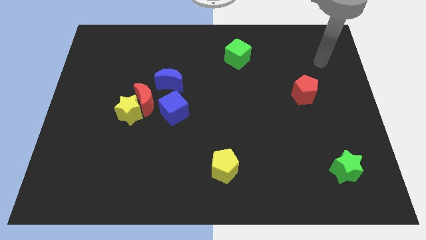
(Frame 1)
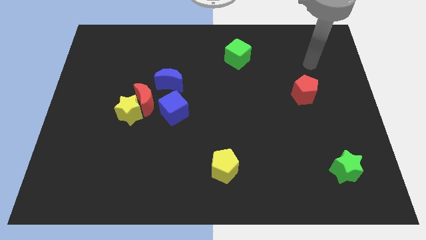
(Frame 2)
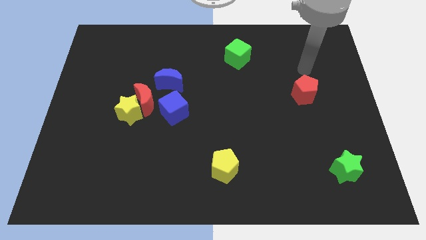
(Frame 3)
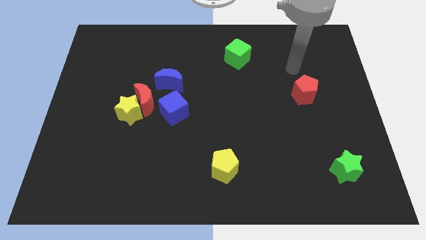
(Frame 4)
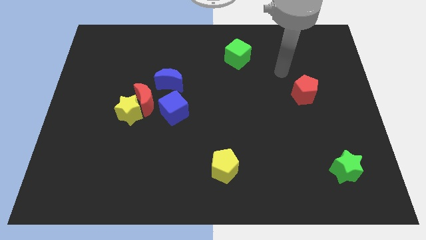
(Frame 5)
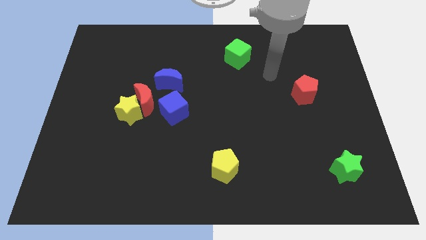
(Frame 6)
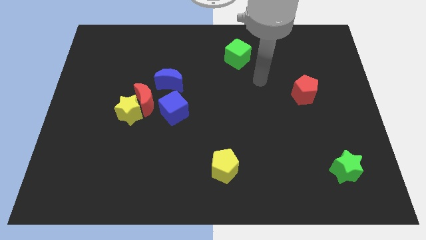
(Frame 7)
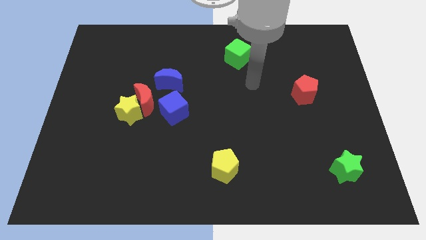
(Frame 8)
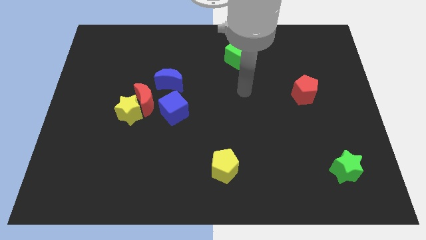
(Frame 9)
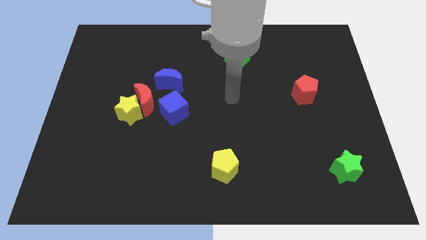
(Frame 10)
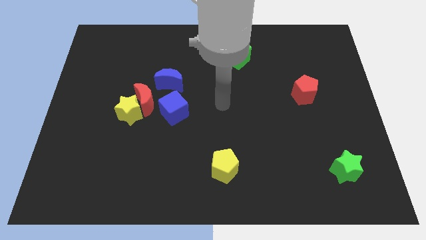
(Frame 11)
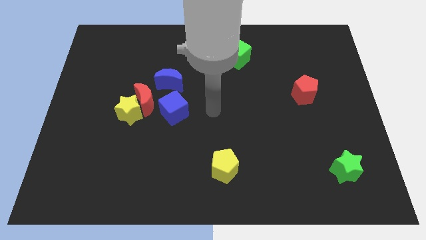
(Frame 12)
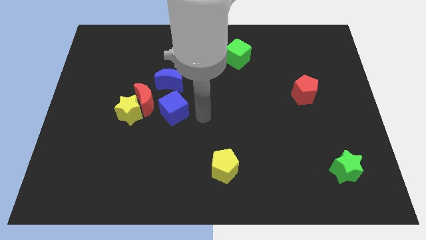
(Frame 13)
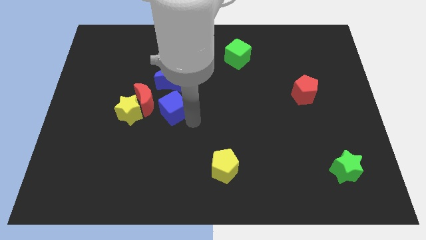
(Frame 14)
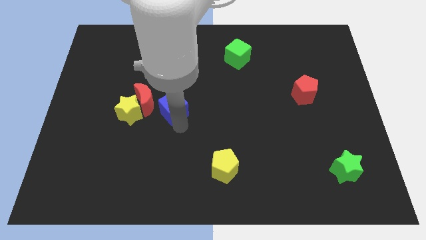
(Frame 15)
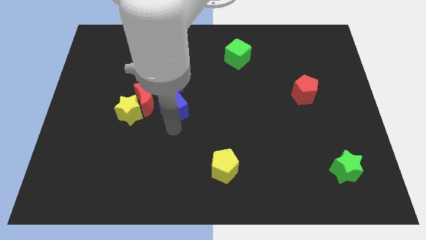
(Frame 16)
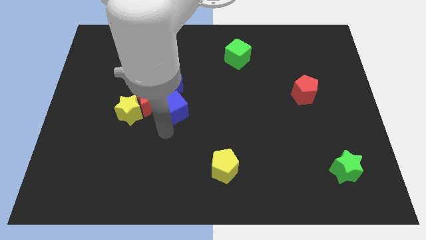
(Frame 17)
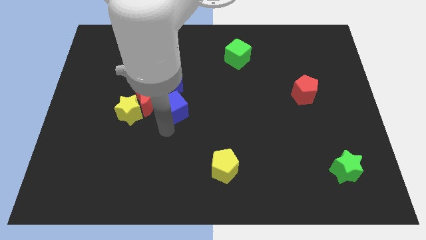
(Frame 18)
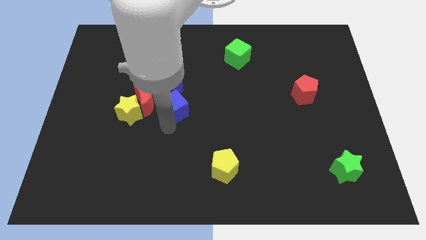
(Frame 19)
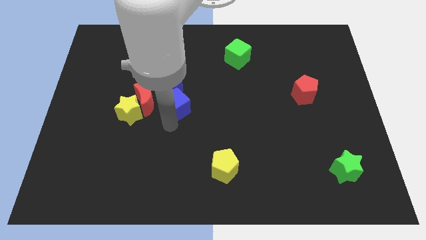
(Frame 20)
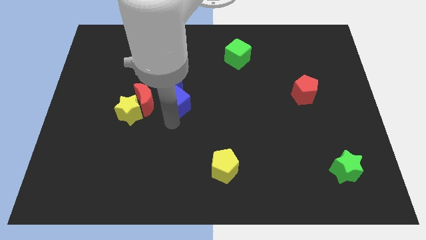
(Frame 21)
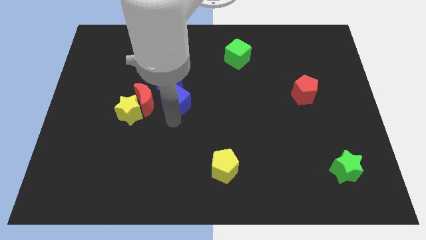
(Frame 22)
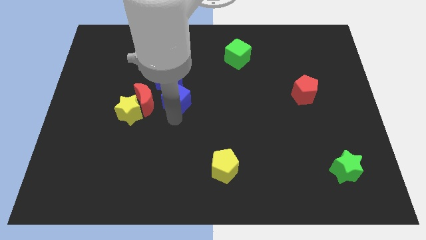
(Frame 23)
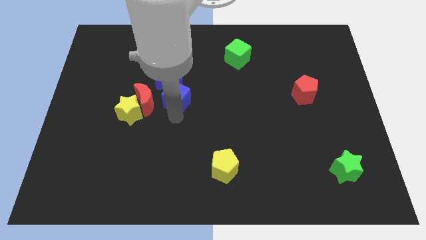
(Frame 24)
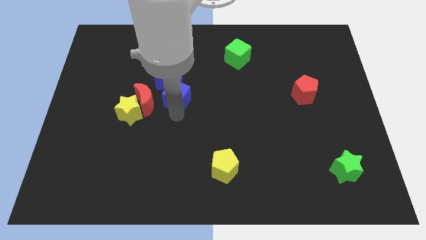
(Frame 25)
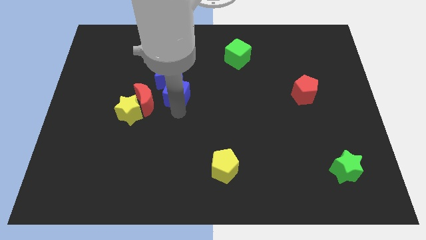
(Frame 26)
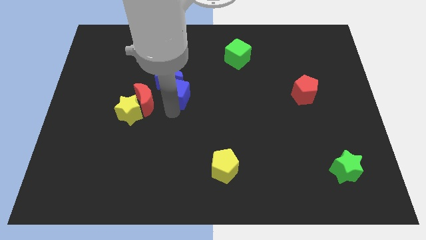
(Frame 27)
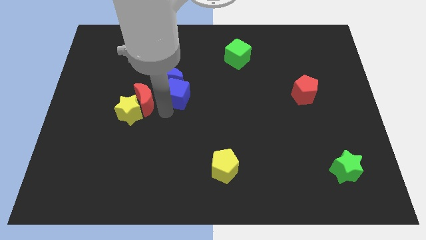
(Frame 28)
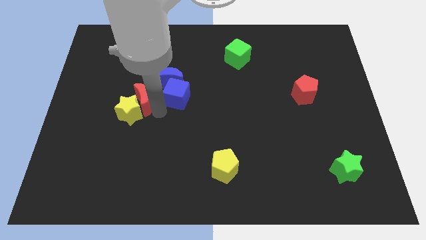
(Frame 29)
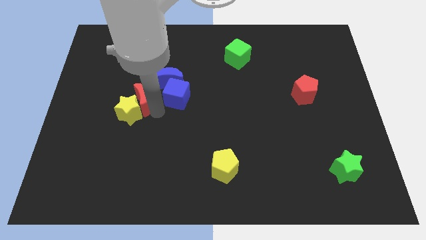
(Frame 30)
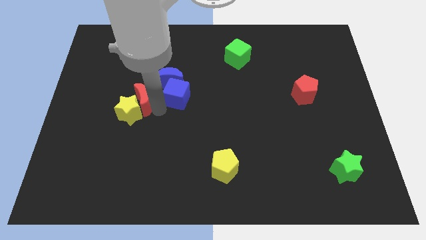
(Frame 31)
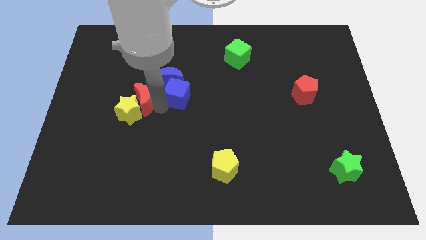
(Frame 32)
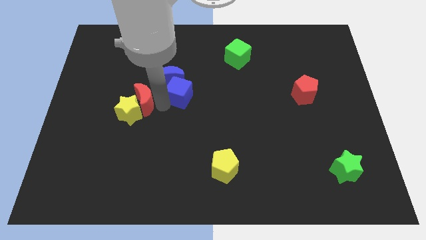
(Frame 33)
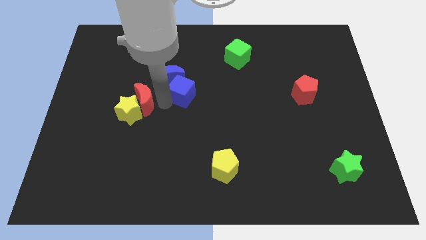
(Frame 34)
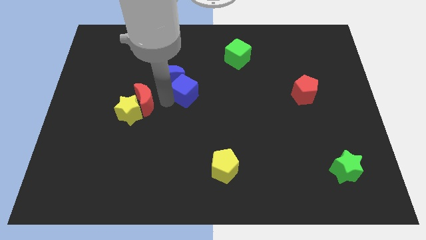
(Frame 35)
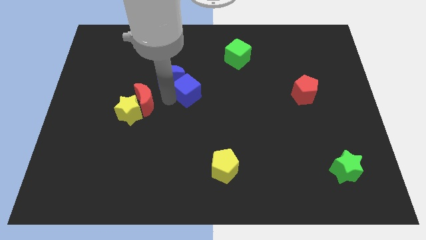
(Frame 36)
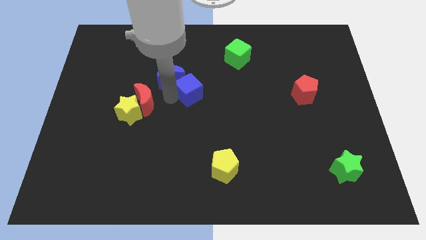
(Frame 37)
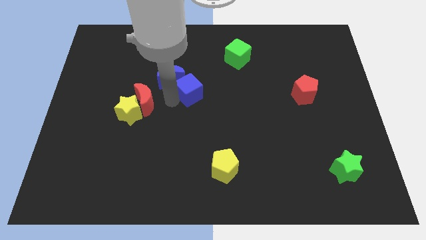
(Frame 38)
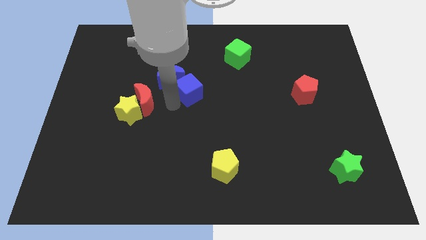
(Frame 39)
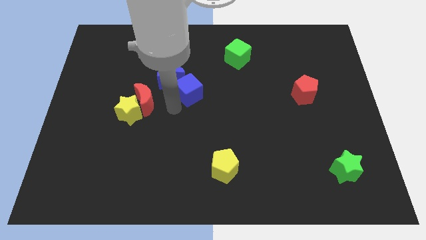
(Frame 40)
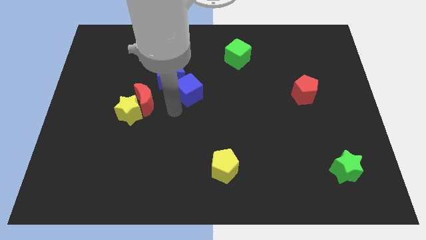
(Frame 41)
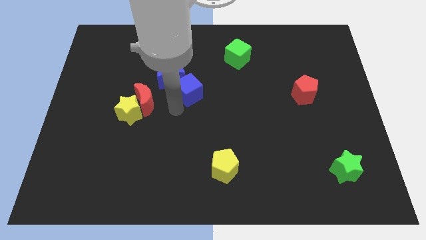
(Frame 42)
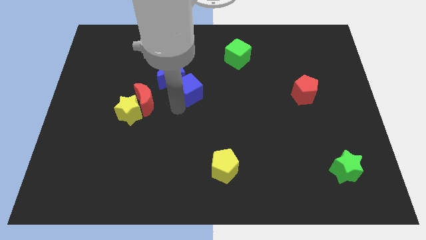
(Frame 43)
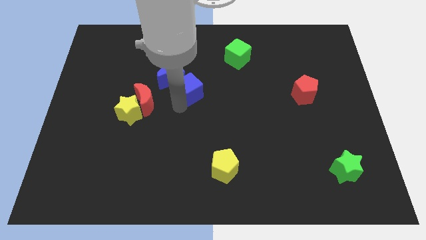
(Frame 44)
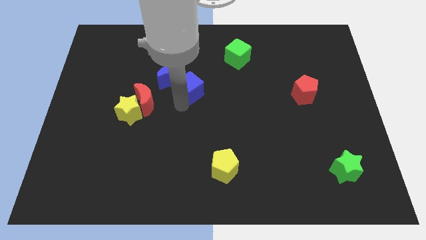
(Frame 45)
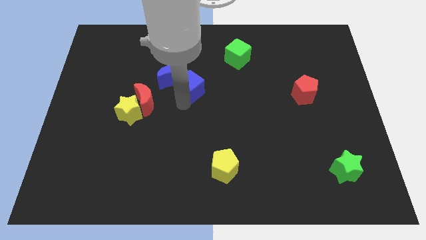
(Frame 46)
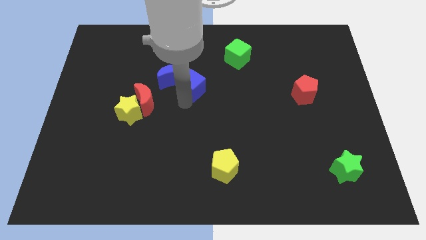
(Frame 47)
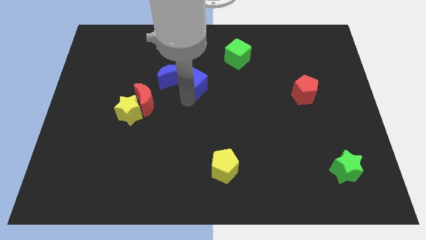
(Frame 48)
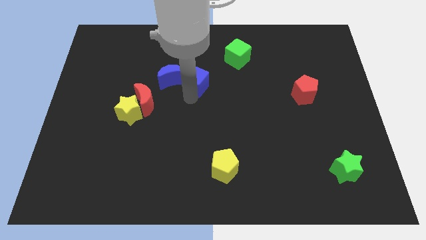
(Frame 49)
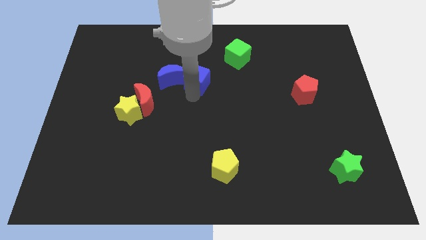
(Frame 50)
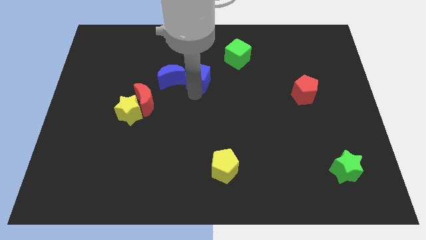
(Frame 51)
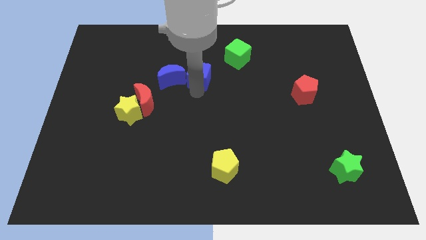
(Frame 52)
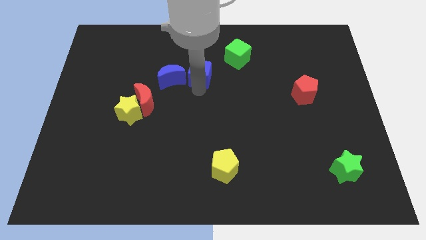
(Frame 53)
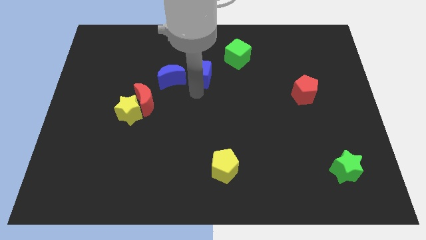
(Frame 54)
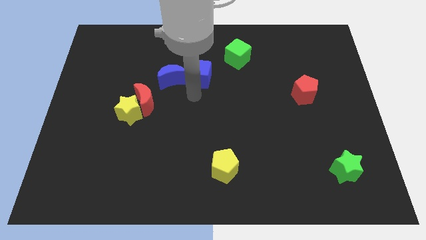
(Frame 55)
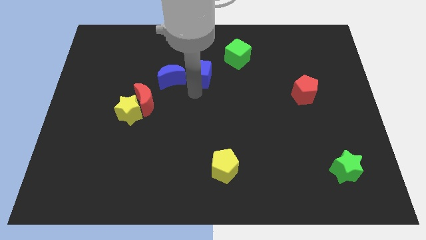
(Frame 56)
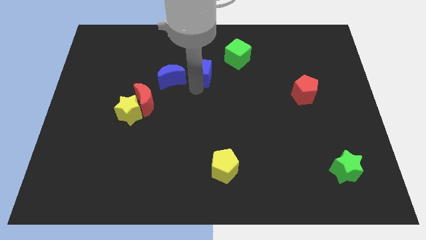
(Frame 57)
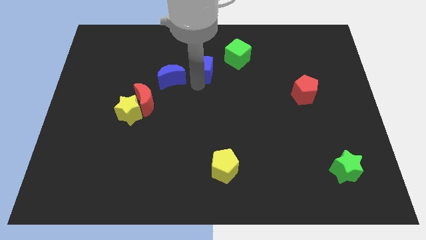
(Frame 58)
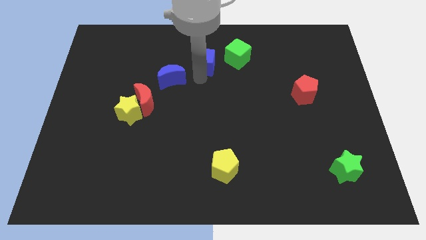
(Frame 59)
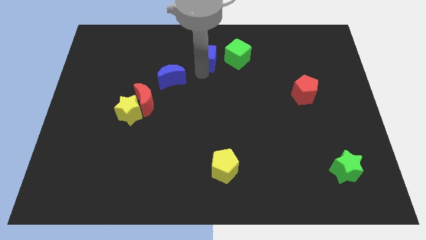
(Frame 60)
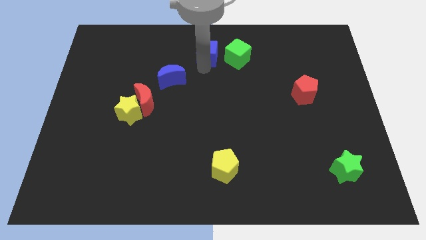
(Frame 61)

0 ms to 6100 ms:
put the blue cube to the towards your base

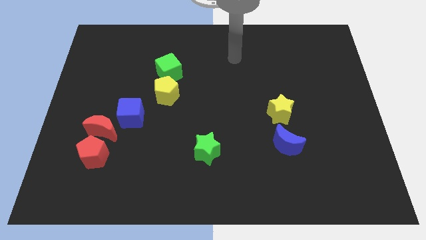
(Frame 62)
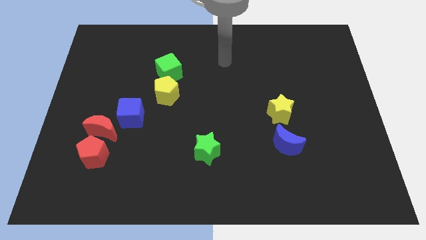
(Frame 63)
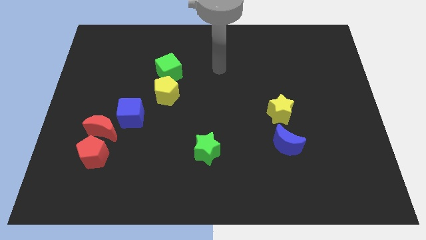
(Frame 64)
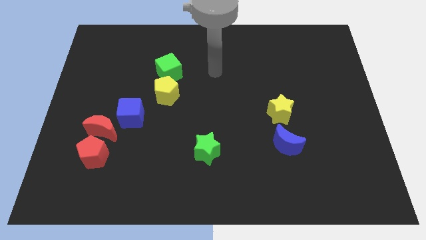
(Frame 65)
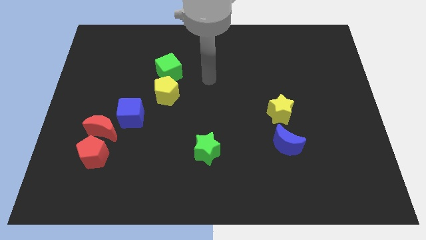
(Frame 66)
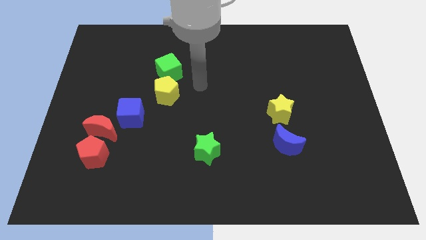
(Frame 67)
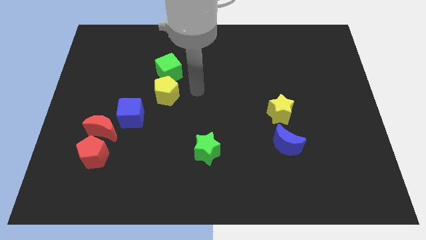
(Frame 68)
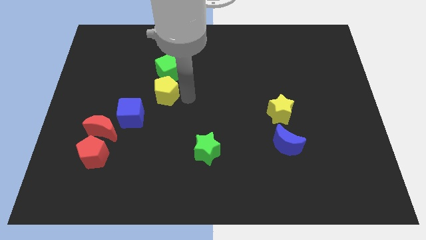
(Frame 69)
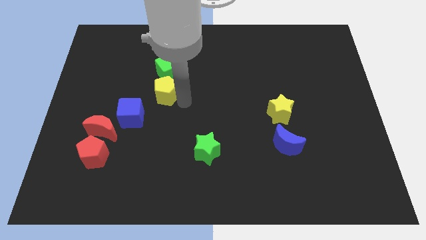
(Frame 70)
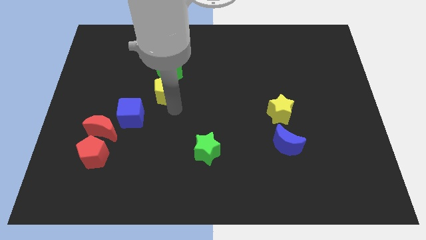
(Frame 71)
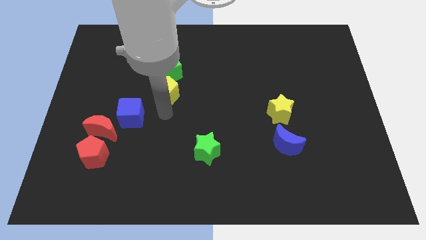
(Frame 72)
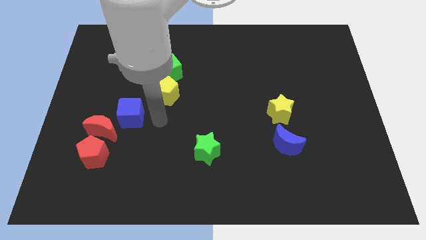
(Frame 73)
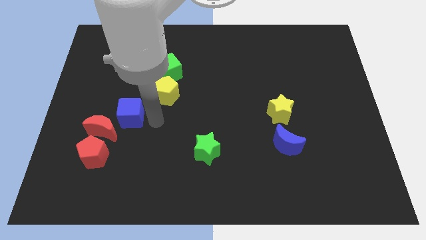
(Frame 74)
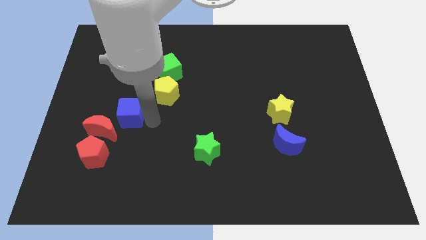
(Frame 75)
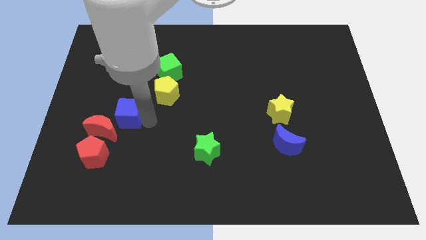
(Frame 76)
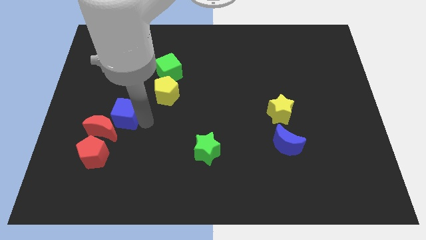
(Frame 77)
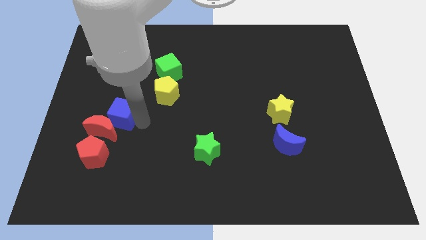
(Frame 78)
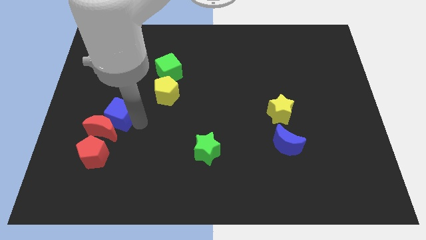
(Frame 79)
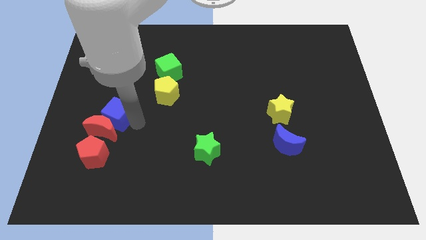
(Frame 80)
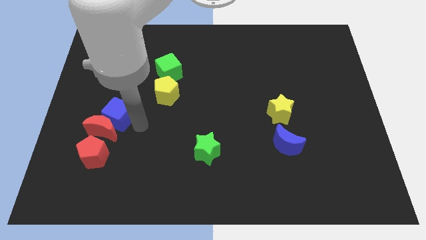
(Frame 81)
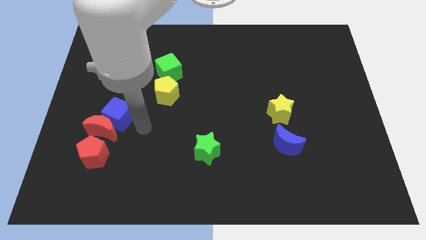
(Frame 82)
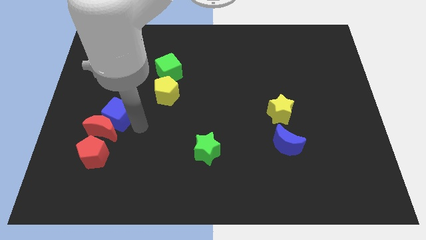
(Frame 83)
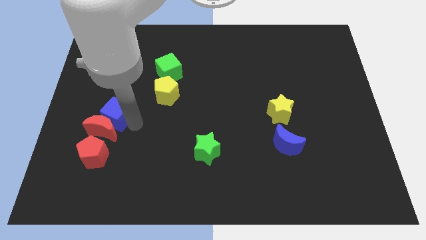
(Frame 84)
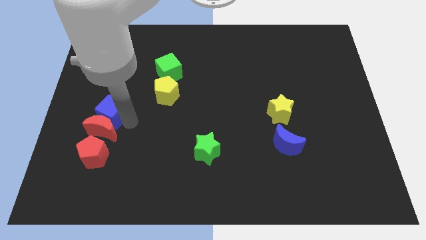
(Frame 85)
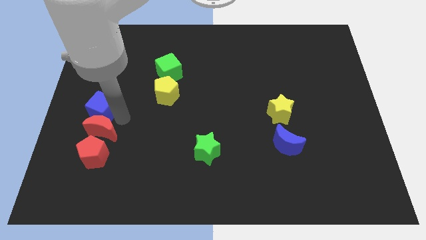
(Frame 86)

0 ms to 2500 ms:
move the blue cube to the center left
